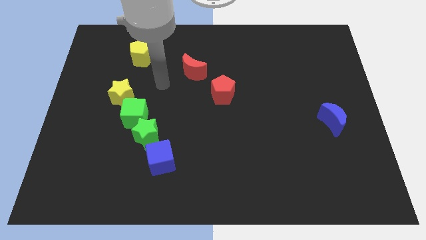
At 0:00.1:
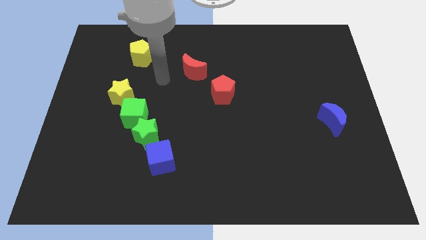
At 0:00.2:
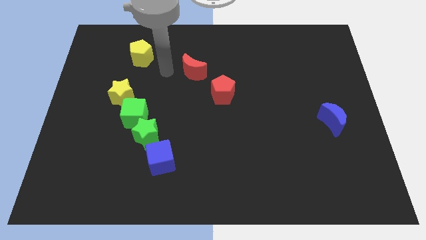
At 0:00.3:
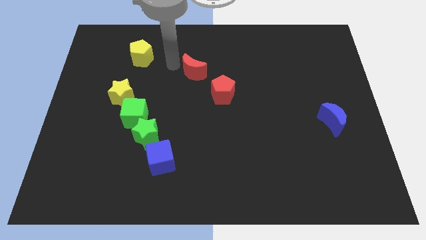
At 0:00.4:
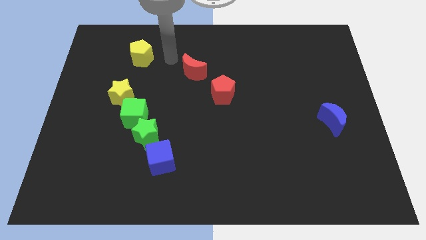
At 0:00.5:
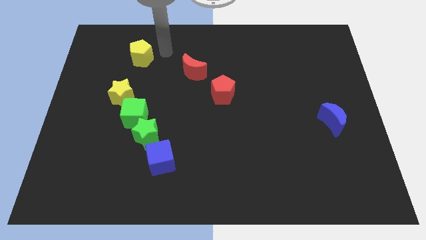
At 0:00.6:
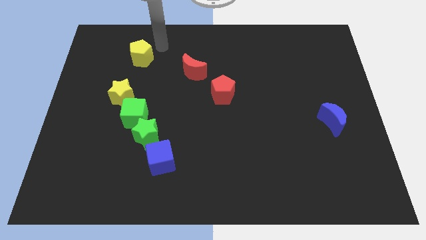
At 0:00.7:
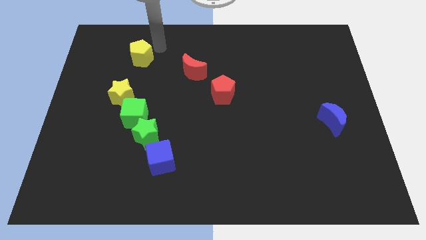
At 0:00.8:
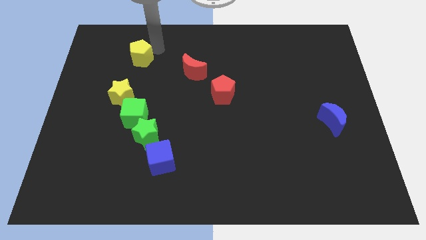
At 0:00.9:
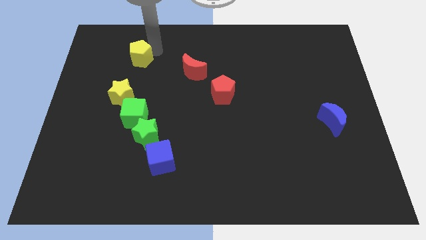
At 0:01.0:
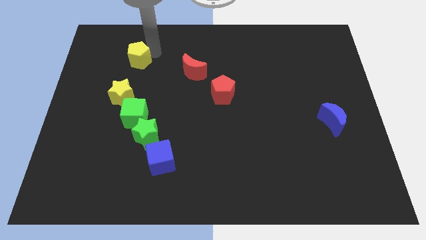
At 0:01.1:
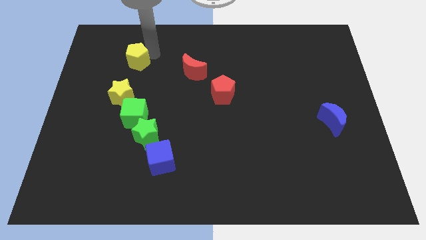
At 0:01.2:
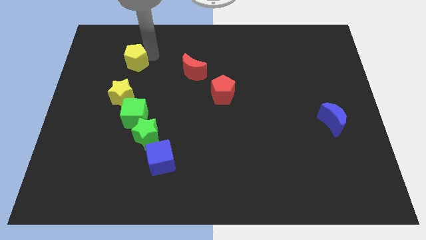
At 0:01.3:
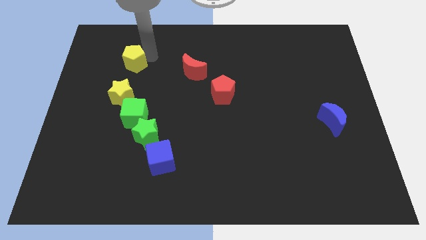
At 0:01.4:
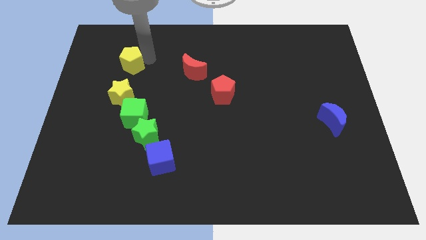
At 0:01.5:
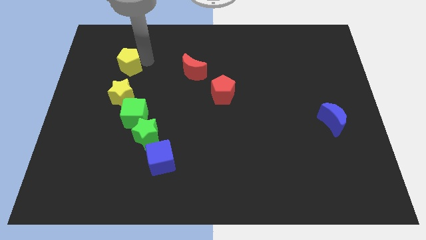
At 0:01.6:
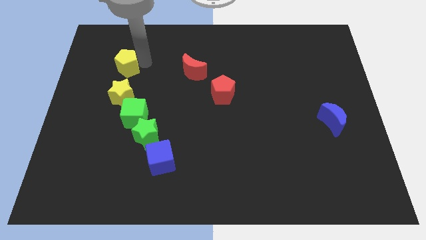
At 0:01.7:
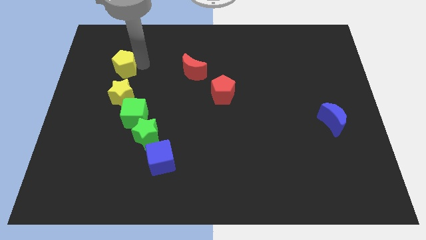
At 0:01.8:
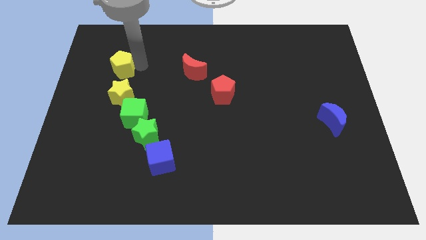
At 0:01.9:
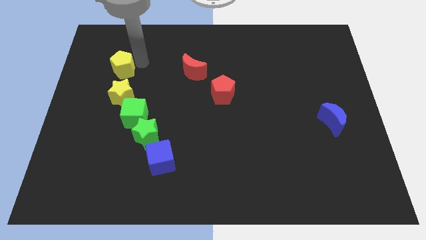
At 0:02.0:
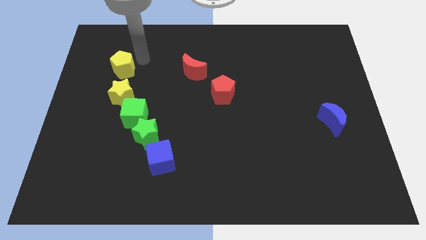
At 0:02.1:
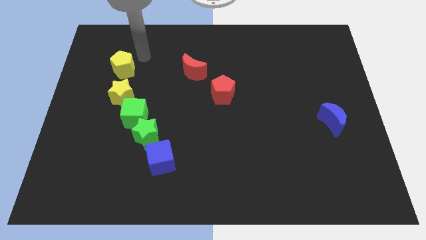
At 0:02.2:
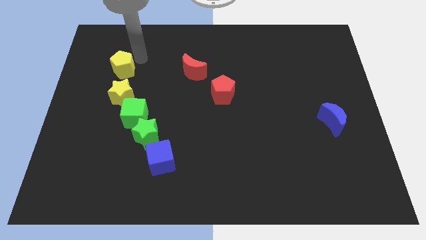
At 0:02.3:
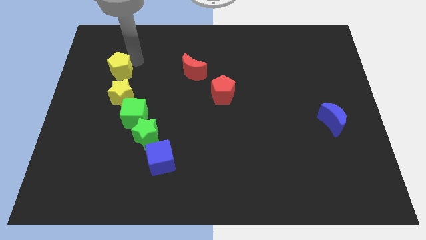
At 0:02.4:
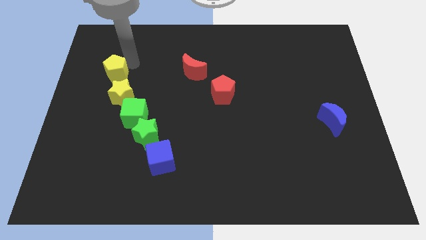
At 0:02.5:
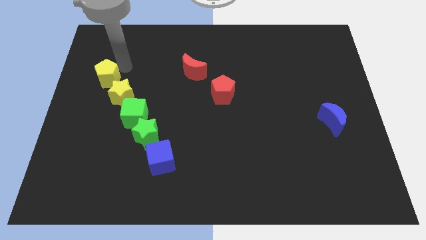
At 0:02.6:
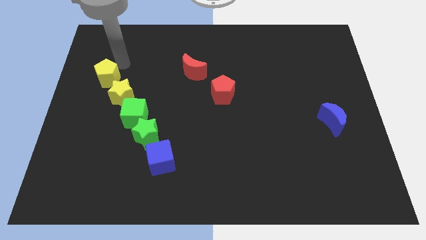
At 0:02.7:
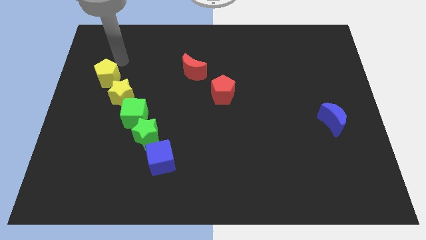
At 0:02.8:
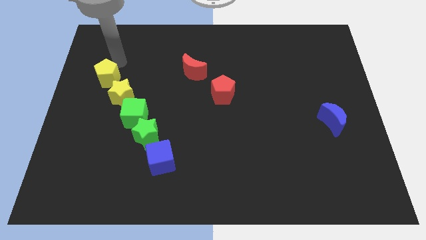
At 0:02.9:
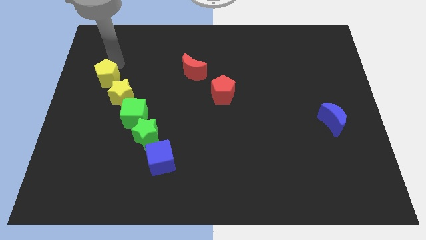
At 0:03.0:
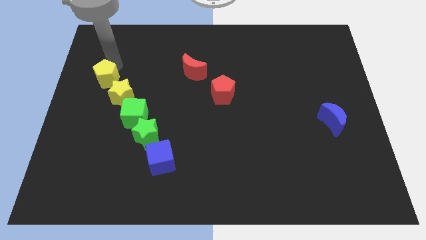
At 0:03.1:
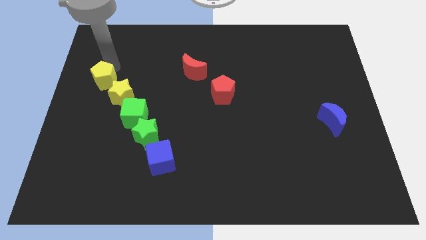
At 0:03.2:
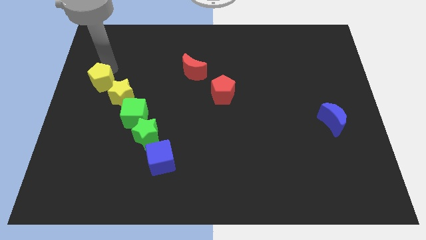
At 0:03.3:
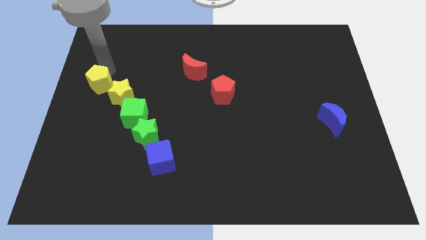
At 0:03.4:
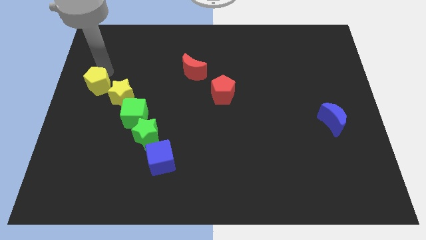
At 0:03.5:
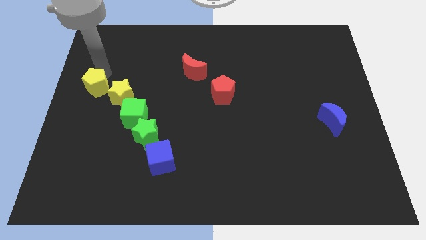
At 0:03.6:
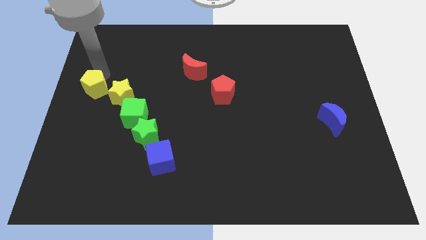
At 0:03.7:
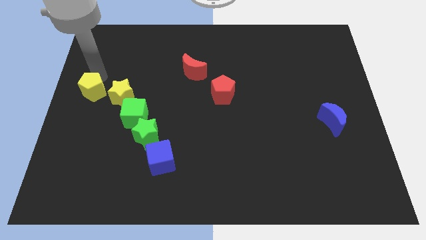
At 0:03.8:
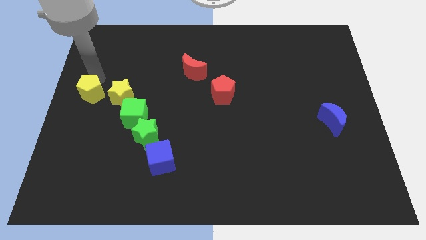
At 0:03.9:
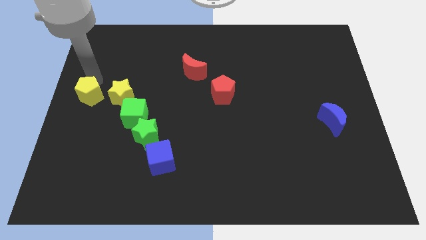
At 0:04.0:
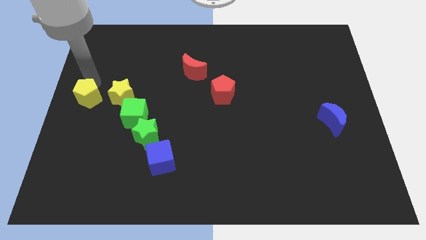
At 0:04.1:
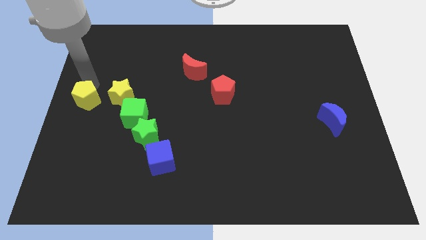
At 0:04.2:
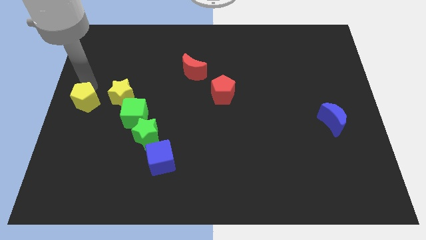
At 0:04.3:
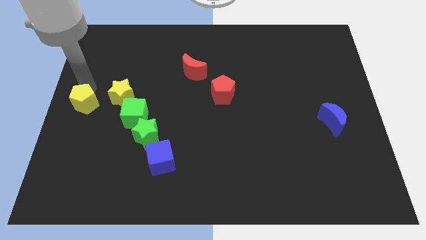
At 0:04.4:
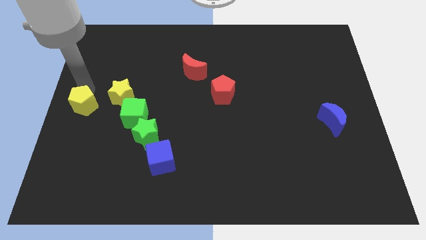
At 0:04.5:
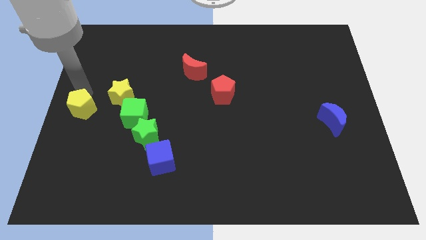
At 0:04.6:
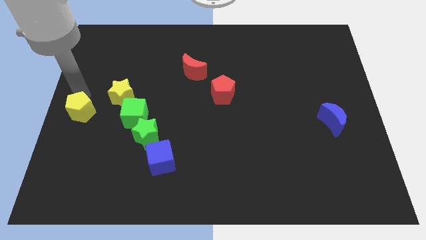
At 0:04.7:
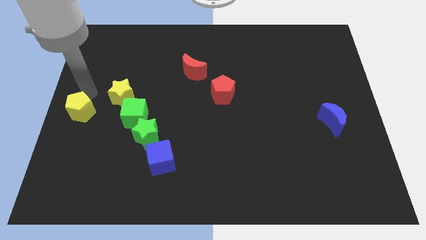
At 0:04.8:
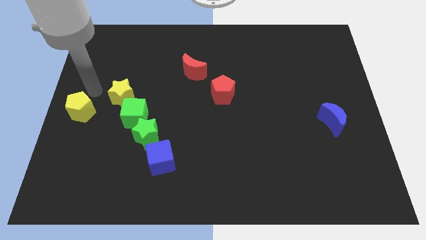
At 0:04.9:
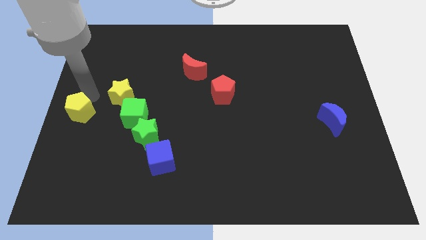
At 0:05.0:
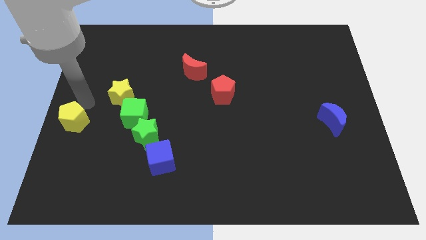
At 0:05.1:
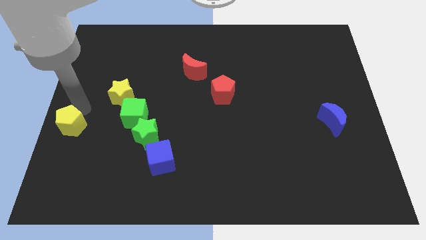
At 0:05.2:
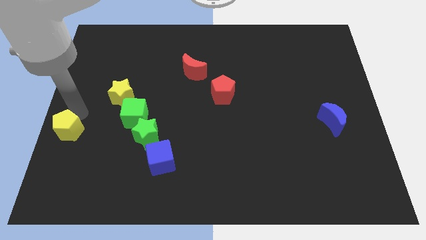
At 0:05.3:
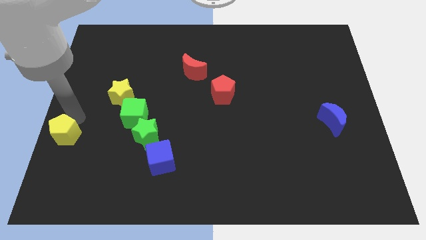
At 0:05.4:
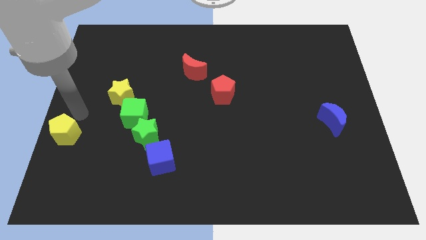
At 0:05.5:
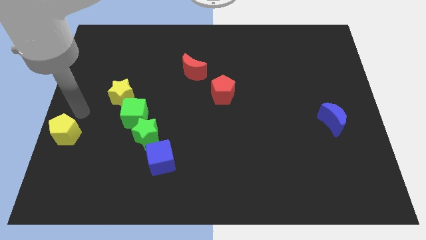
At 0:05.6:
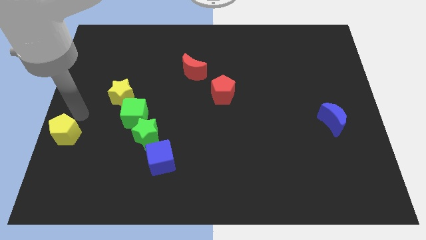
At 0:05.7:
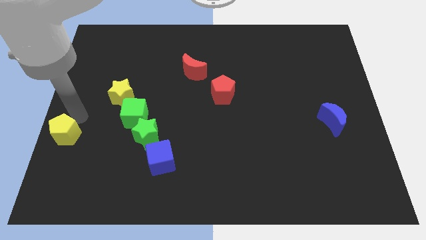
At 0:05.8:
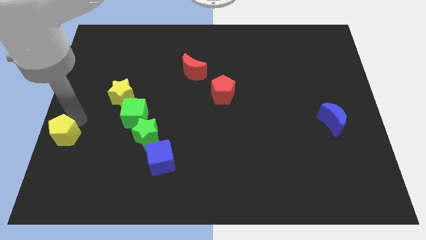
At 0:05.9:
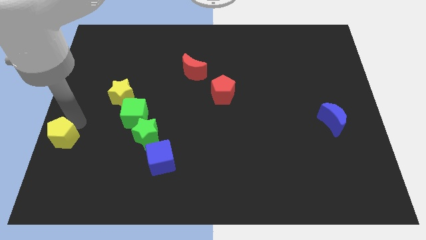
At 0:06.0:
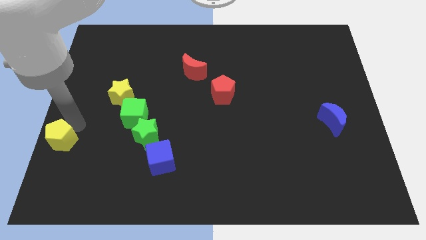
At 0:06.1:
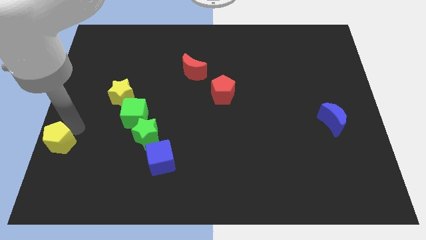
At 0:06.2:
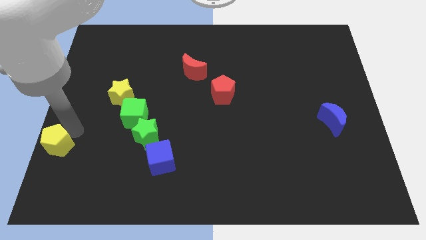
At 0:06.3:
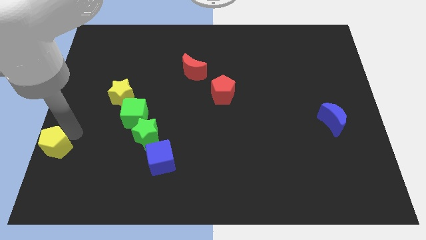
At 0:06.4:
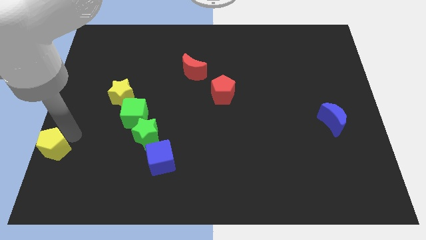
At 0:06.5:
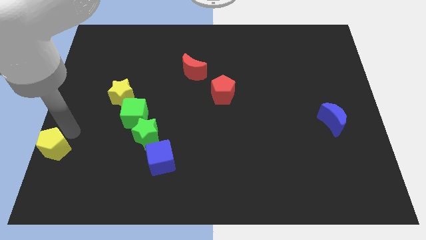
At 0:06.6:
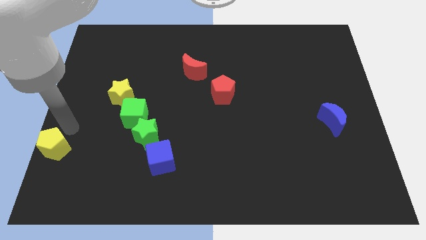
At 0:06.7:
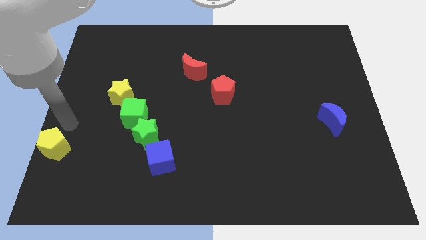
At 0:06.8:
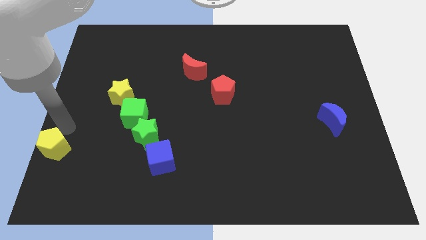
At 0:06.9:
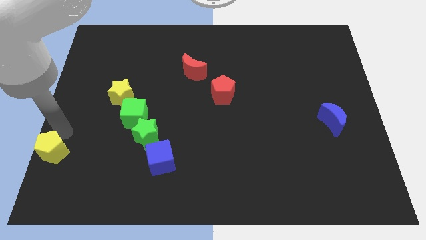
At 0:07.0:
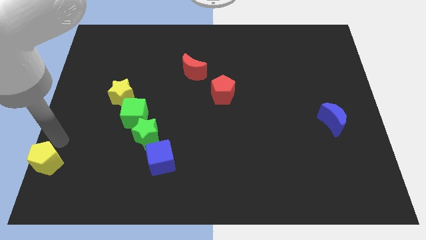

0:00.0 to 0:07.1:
push the yellow pentagon to the bottom left
